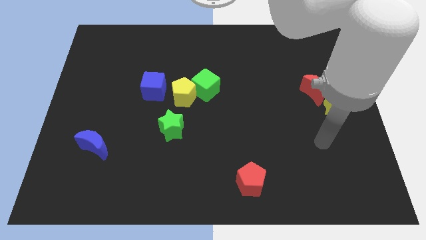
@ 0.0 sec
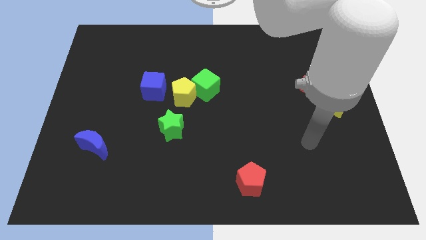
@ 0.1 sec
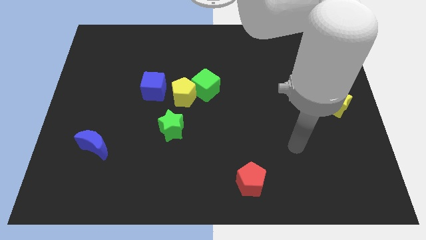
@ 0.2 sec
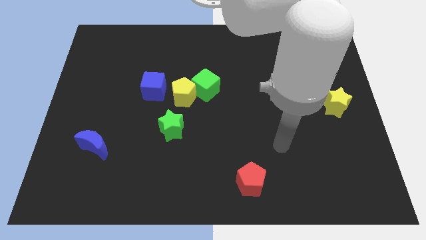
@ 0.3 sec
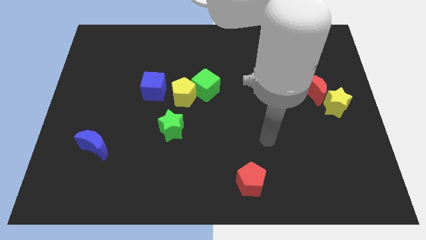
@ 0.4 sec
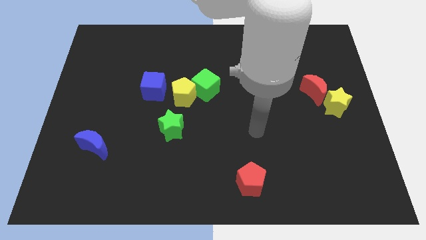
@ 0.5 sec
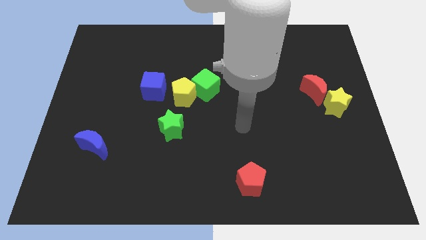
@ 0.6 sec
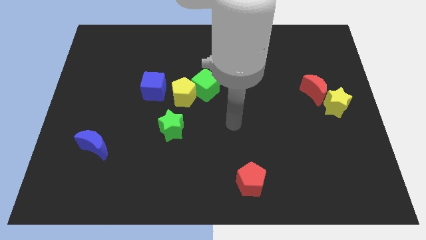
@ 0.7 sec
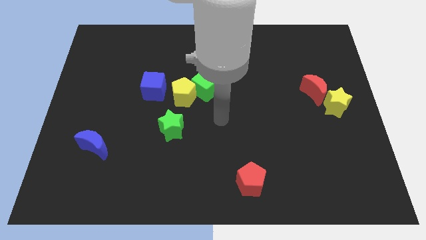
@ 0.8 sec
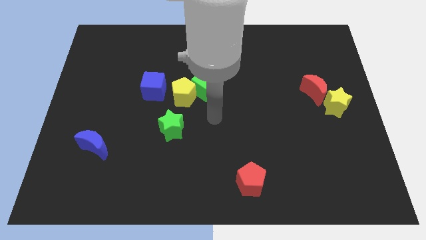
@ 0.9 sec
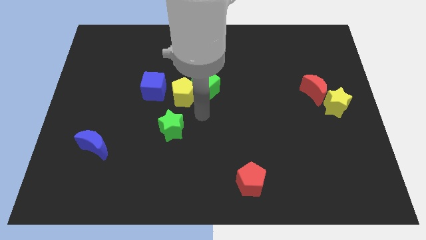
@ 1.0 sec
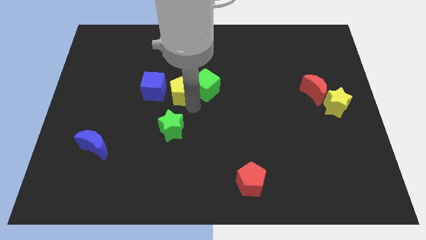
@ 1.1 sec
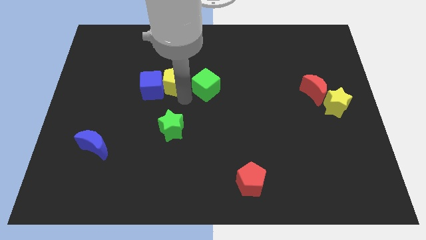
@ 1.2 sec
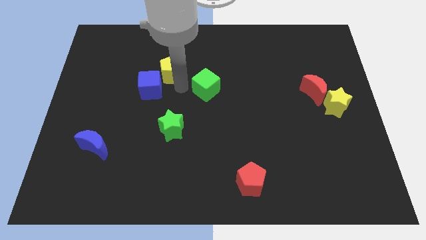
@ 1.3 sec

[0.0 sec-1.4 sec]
pull the green cube apart from the yellow pentagon

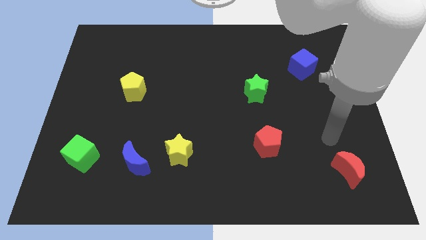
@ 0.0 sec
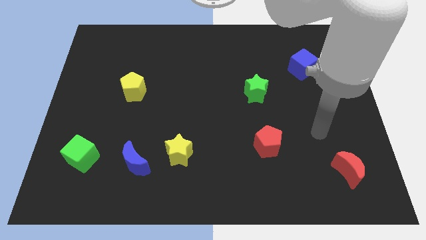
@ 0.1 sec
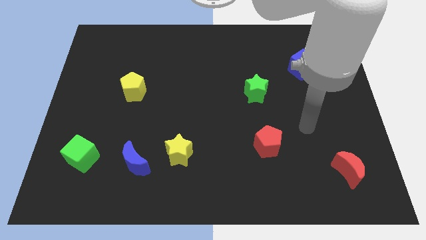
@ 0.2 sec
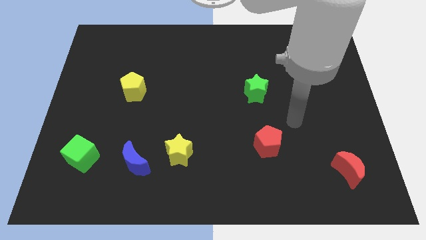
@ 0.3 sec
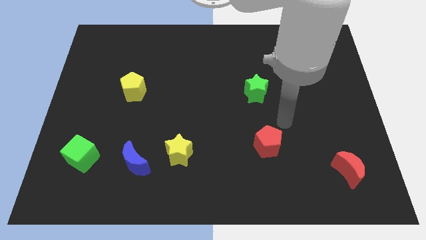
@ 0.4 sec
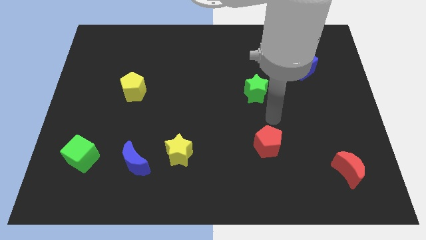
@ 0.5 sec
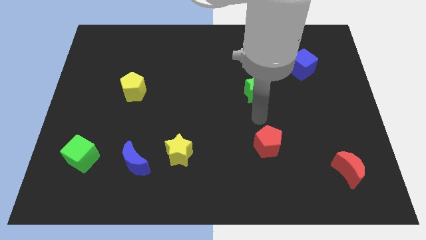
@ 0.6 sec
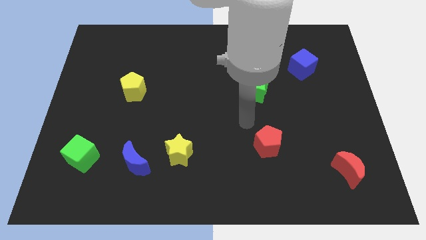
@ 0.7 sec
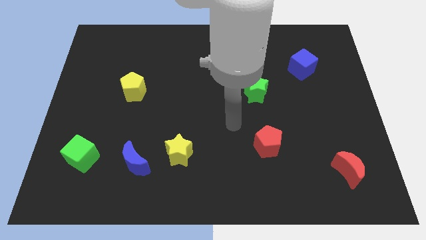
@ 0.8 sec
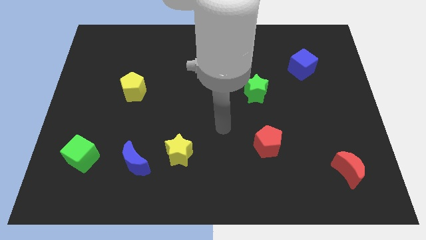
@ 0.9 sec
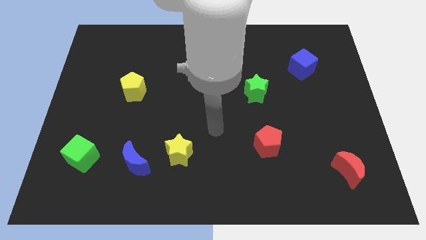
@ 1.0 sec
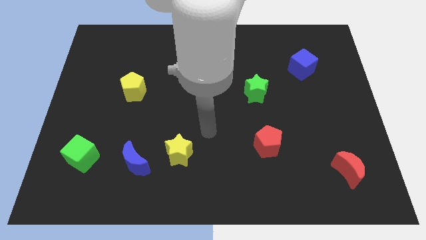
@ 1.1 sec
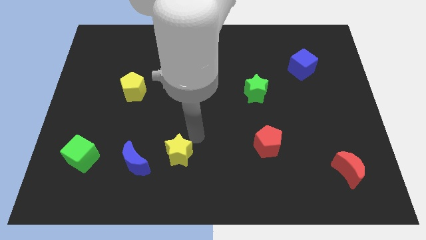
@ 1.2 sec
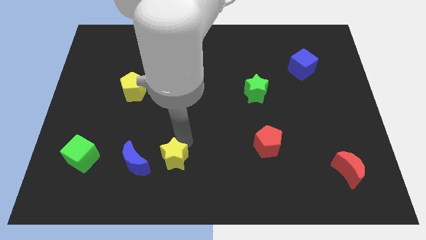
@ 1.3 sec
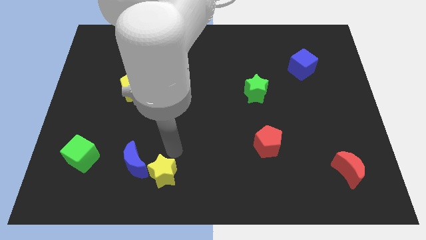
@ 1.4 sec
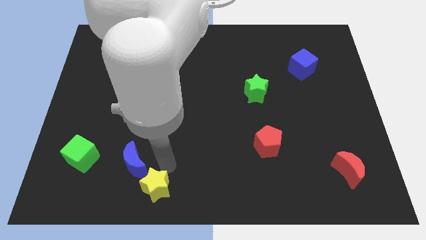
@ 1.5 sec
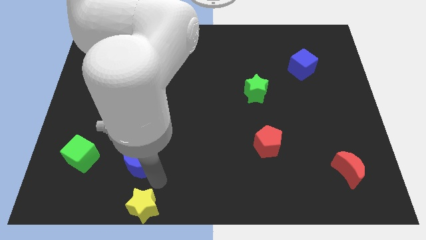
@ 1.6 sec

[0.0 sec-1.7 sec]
move the blue moon away from the yellow star

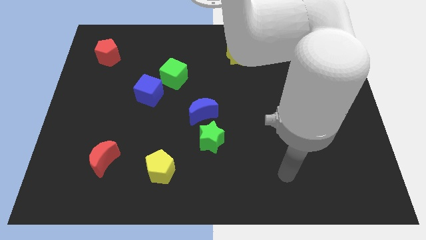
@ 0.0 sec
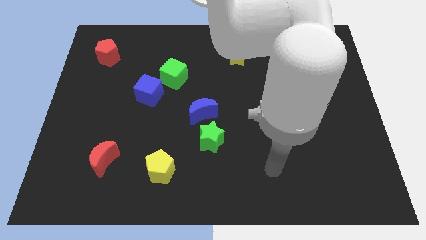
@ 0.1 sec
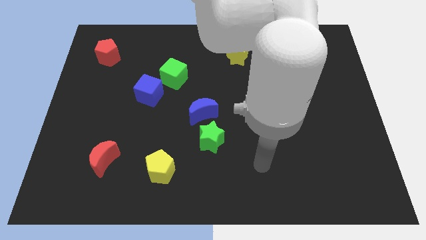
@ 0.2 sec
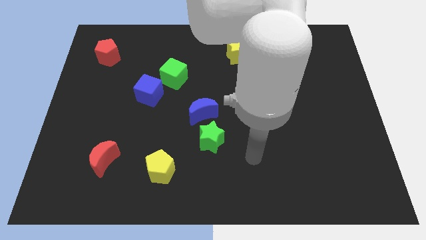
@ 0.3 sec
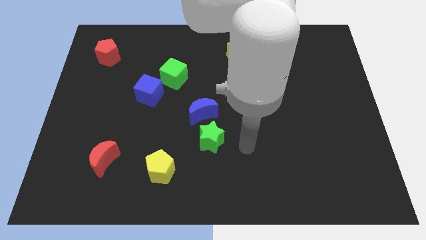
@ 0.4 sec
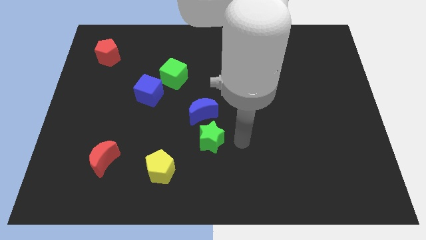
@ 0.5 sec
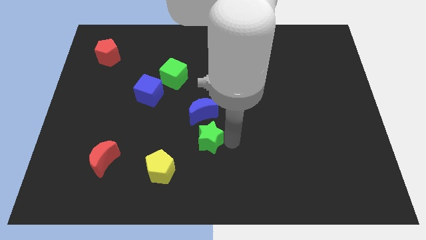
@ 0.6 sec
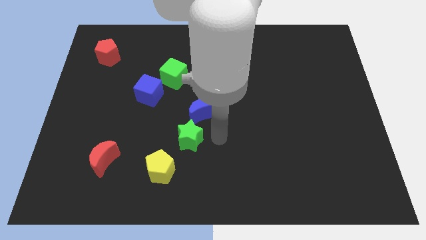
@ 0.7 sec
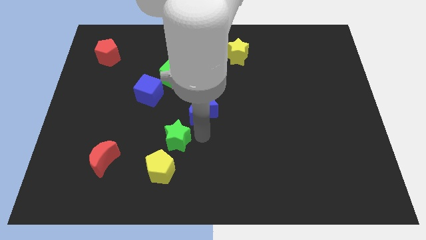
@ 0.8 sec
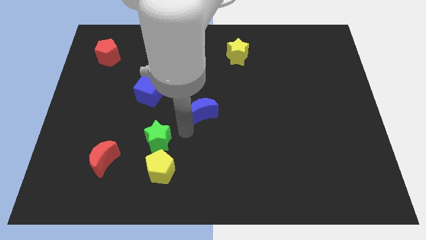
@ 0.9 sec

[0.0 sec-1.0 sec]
move the blue moon away from the green star

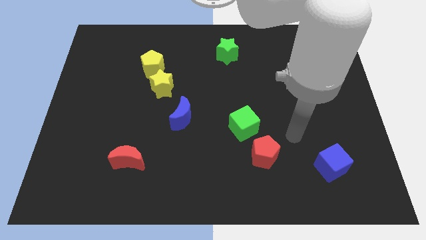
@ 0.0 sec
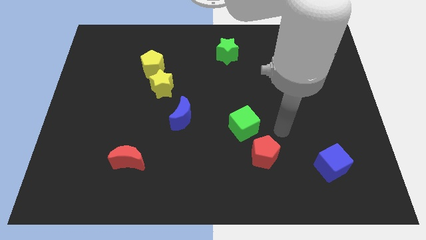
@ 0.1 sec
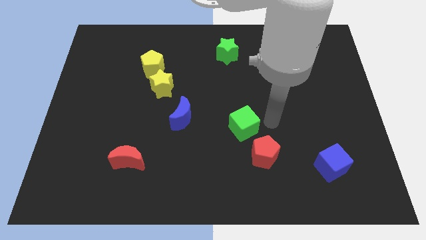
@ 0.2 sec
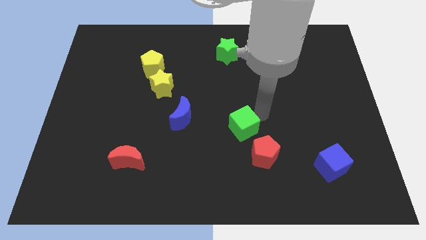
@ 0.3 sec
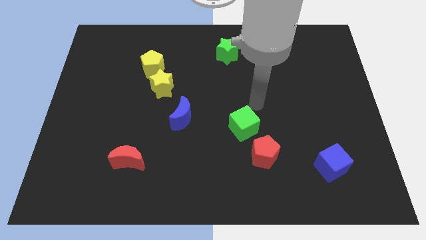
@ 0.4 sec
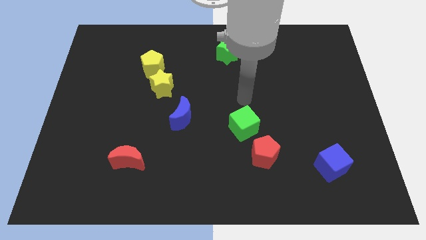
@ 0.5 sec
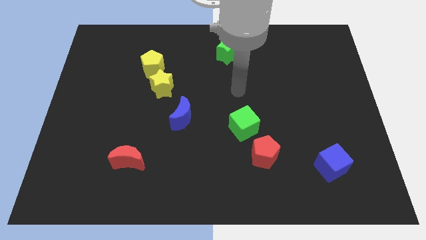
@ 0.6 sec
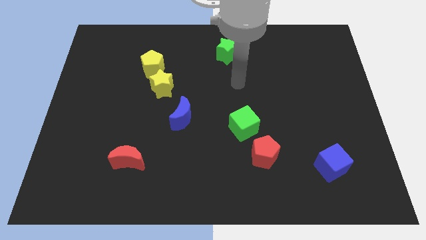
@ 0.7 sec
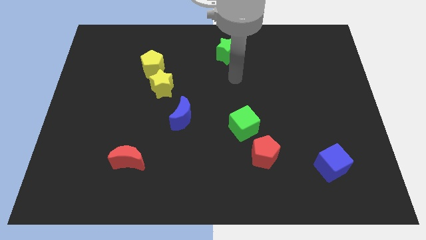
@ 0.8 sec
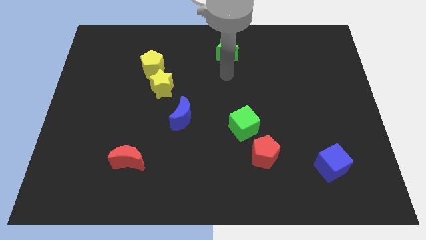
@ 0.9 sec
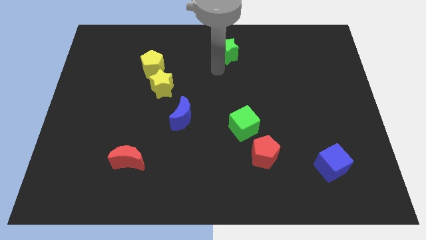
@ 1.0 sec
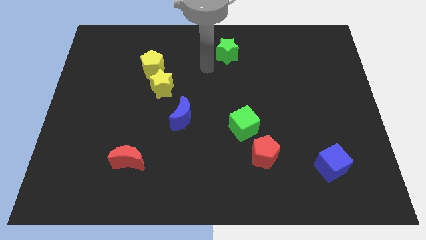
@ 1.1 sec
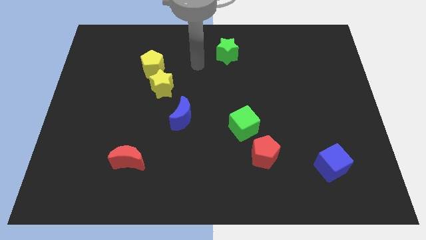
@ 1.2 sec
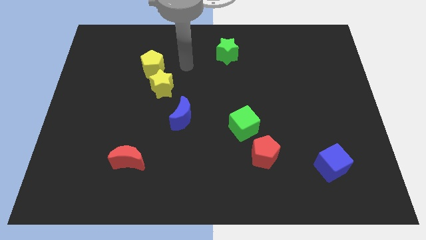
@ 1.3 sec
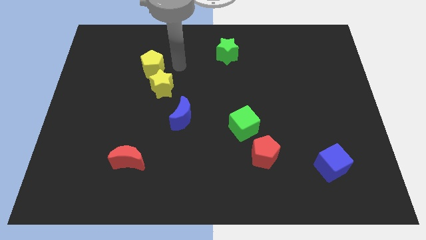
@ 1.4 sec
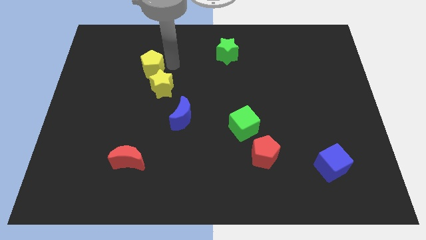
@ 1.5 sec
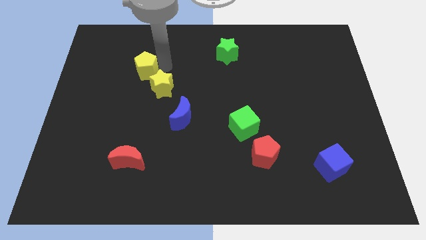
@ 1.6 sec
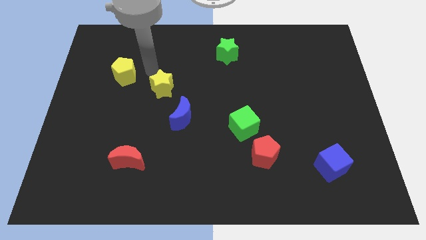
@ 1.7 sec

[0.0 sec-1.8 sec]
separate the yellow star from the yellow pentagon

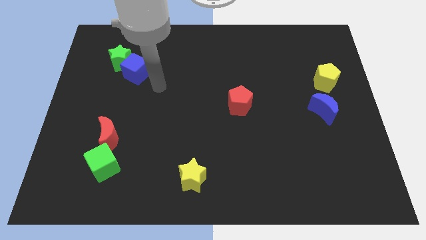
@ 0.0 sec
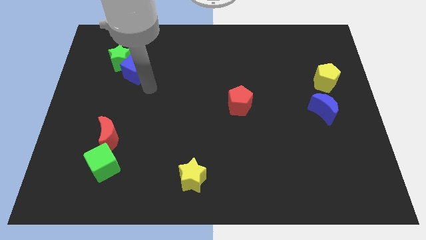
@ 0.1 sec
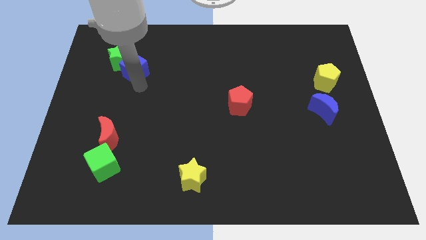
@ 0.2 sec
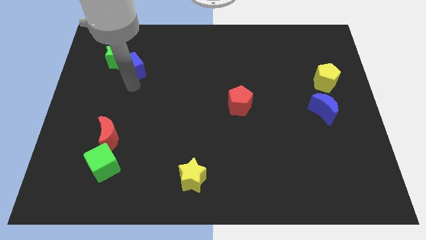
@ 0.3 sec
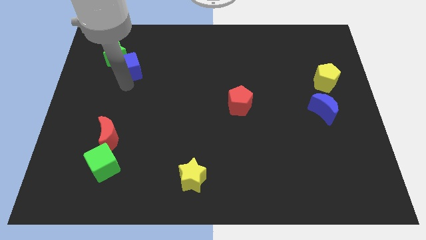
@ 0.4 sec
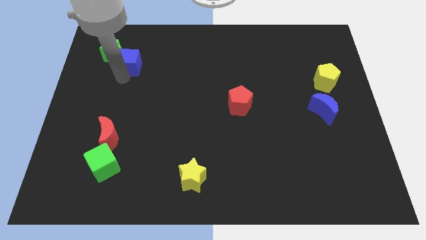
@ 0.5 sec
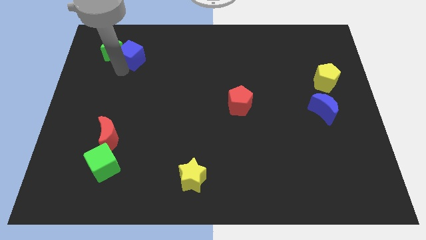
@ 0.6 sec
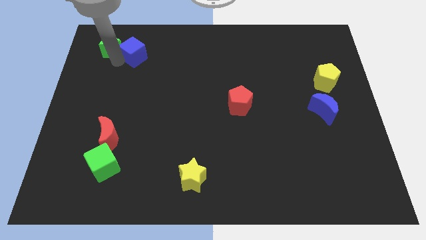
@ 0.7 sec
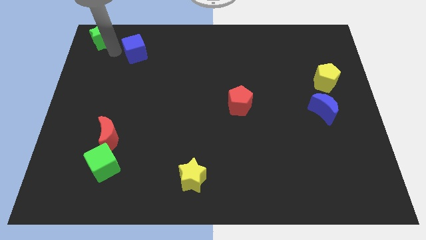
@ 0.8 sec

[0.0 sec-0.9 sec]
pull the blue cube apart from the green star

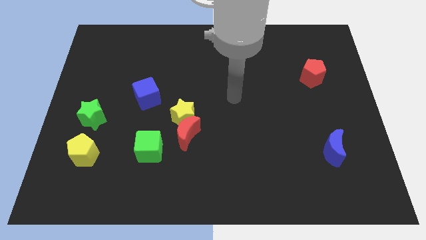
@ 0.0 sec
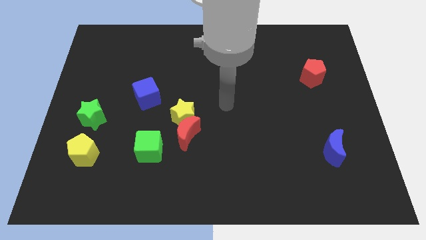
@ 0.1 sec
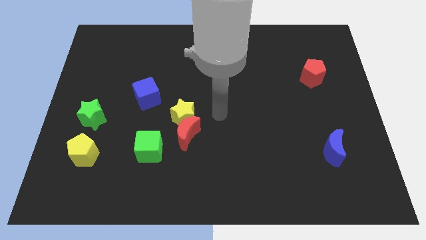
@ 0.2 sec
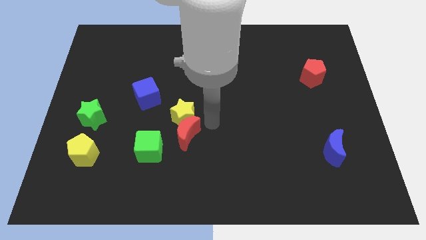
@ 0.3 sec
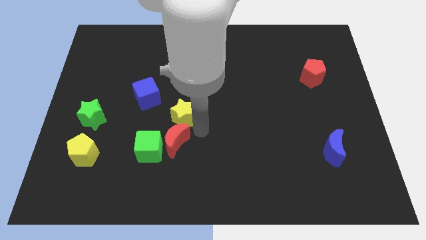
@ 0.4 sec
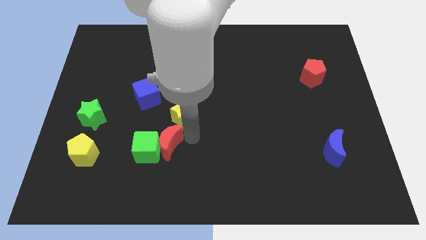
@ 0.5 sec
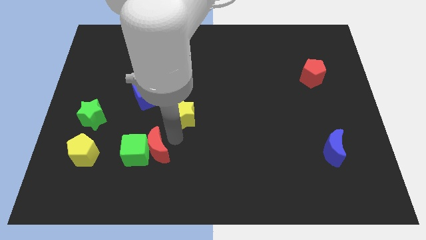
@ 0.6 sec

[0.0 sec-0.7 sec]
move the yellow star away from the red moon

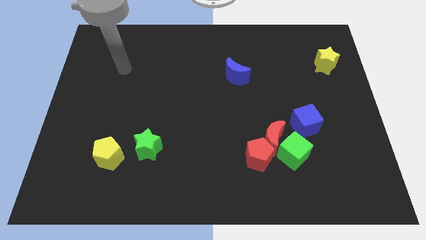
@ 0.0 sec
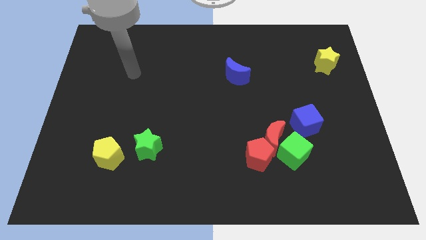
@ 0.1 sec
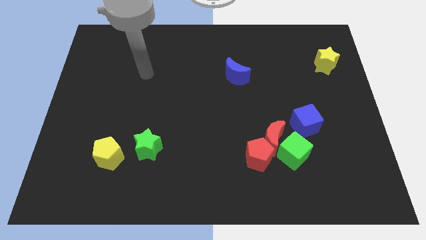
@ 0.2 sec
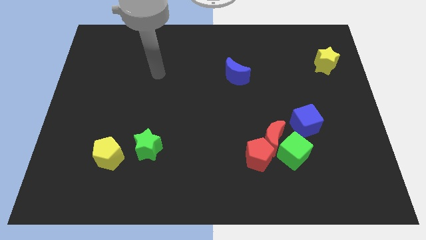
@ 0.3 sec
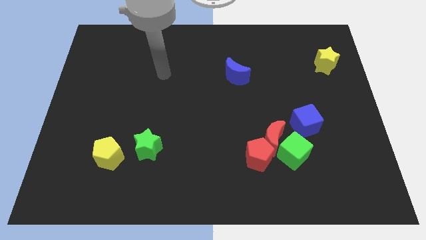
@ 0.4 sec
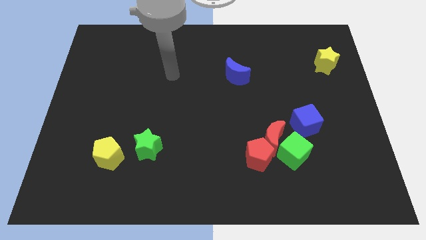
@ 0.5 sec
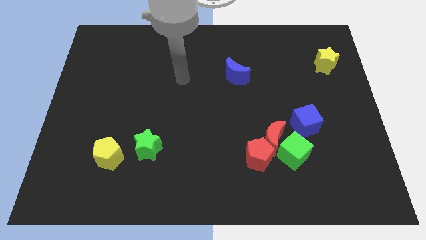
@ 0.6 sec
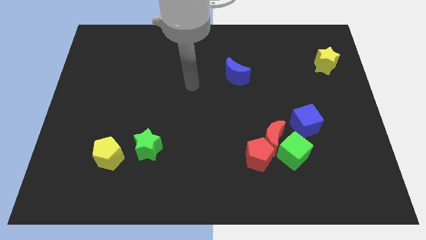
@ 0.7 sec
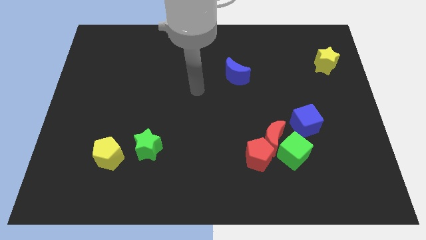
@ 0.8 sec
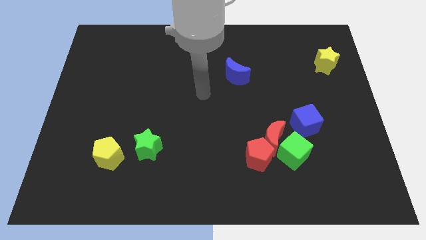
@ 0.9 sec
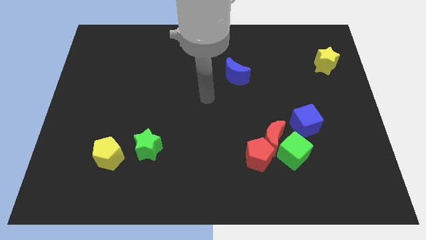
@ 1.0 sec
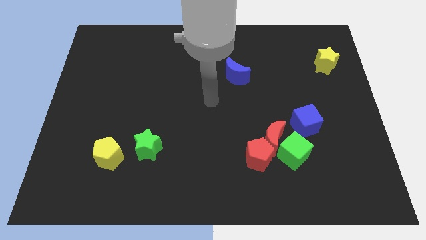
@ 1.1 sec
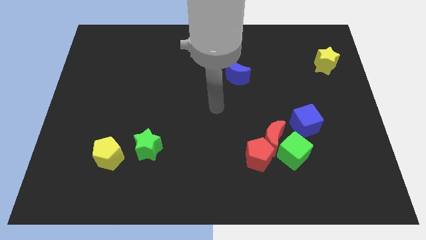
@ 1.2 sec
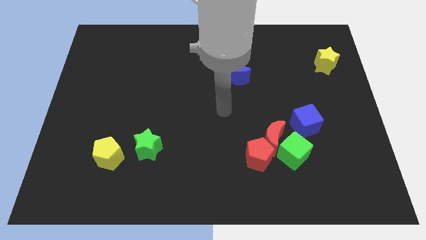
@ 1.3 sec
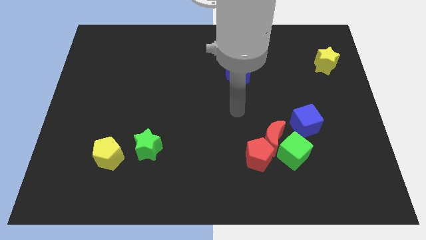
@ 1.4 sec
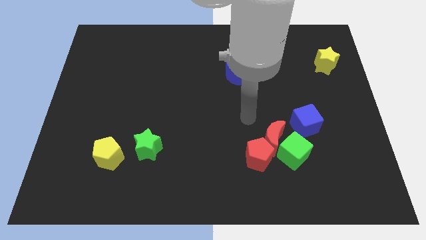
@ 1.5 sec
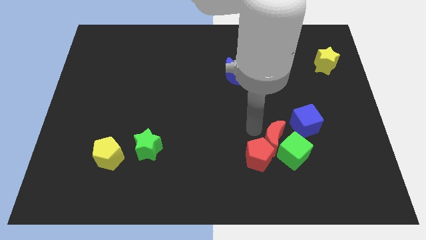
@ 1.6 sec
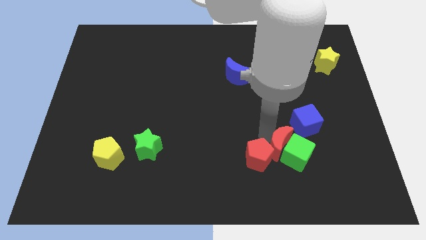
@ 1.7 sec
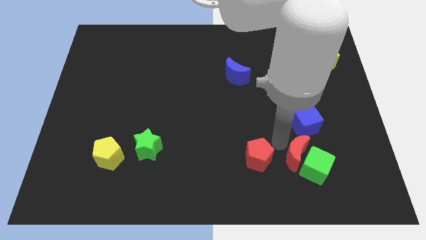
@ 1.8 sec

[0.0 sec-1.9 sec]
move the red pentagon away from the red moon and green cube
